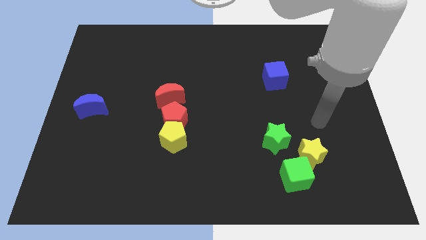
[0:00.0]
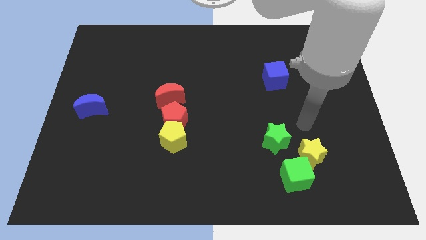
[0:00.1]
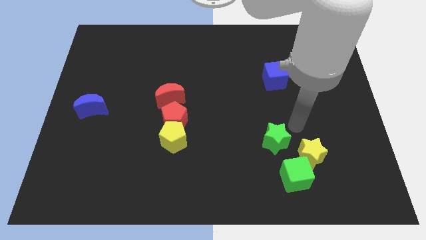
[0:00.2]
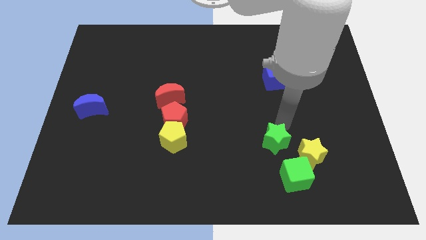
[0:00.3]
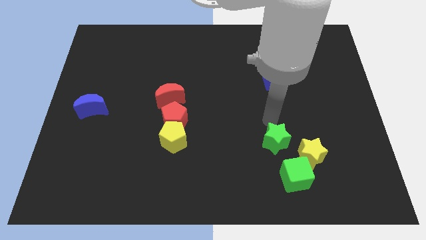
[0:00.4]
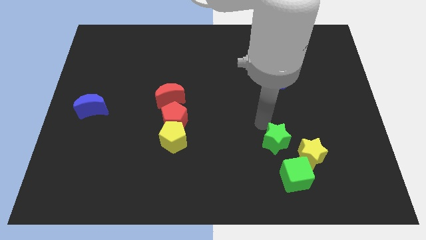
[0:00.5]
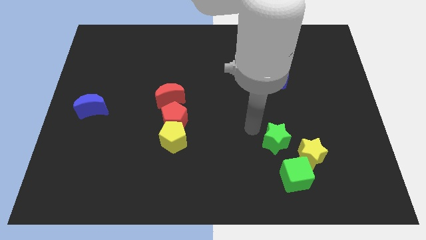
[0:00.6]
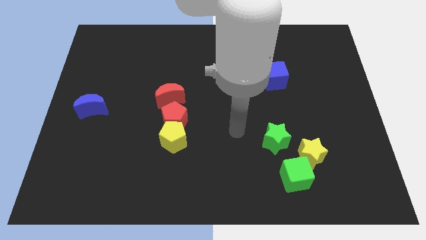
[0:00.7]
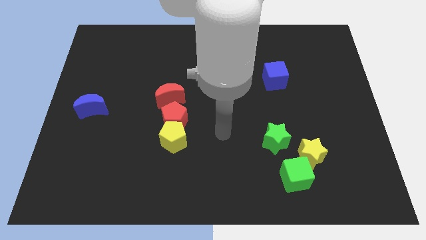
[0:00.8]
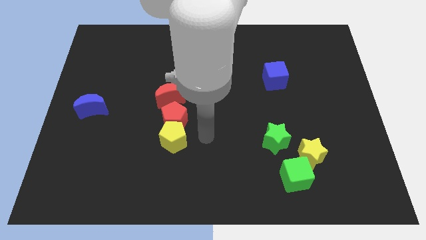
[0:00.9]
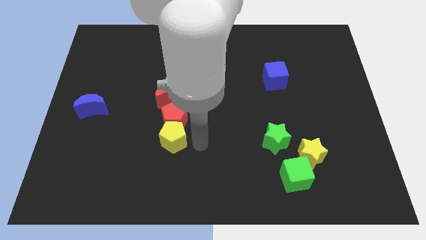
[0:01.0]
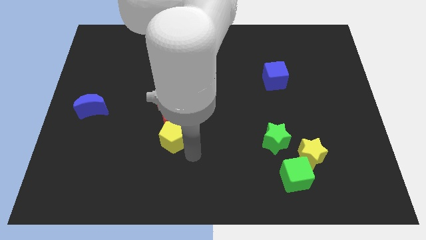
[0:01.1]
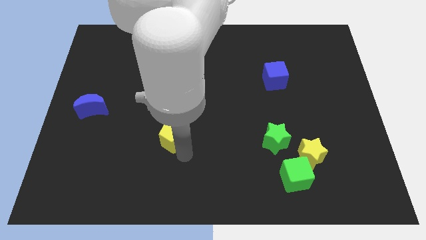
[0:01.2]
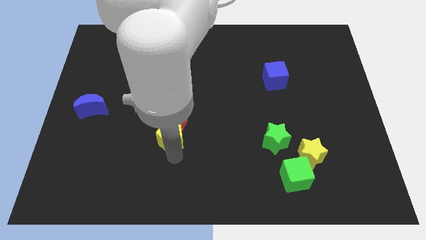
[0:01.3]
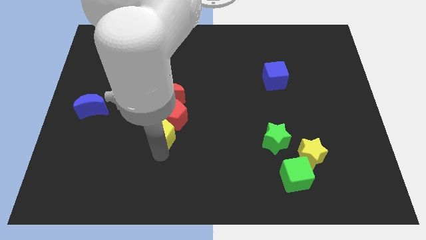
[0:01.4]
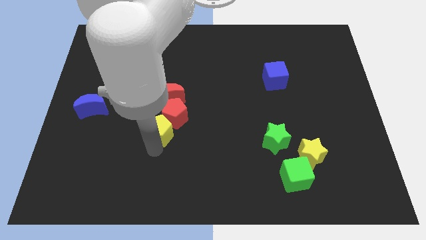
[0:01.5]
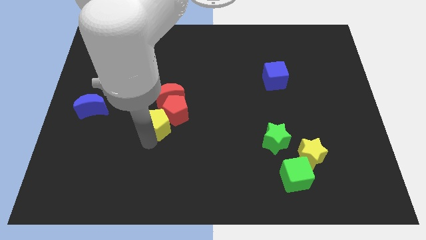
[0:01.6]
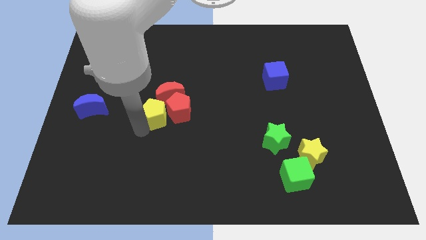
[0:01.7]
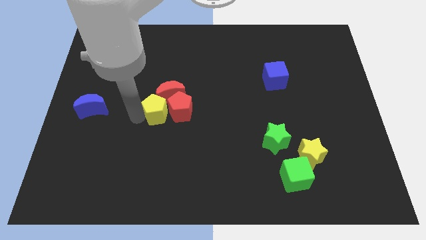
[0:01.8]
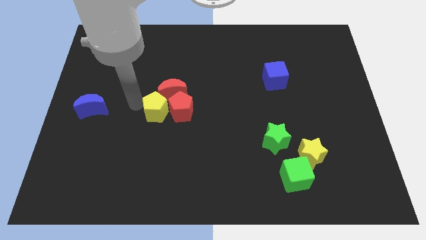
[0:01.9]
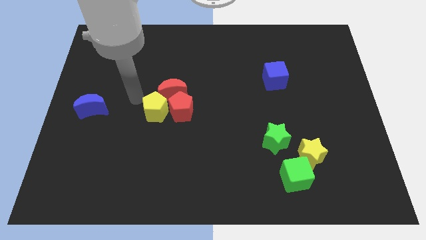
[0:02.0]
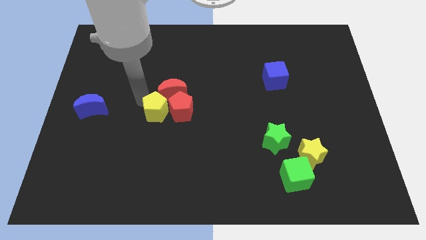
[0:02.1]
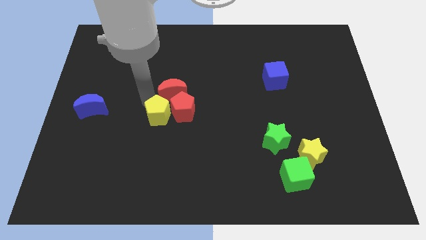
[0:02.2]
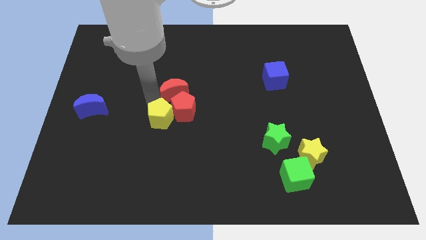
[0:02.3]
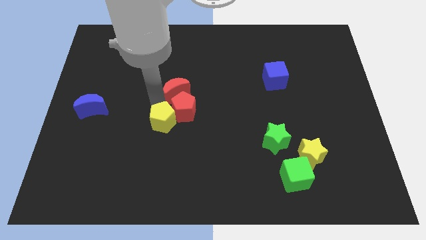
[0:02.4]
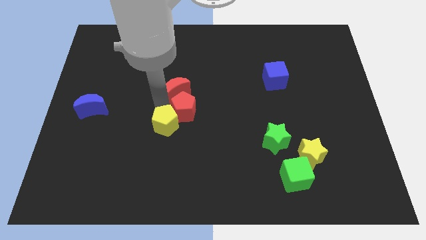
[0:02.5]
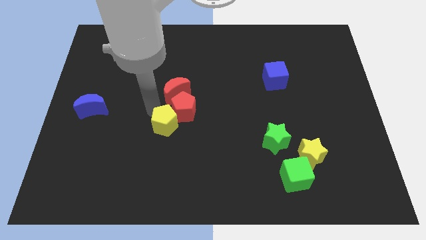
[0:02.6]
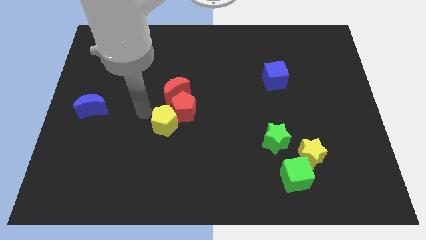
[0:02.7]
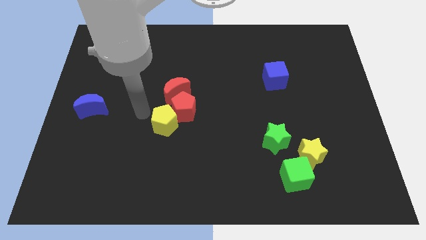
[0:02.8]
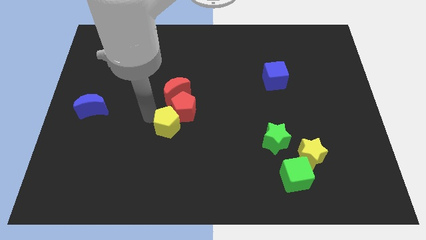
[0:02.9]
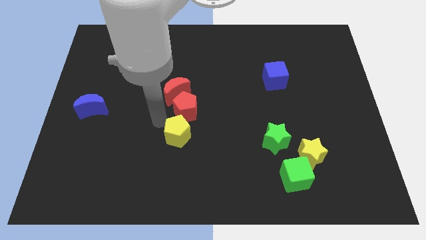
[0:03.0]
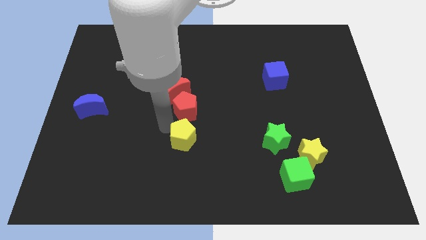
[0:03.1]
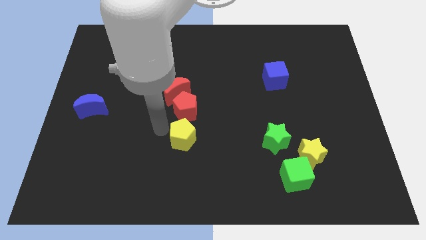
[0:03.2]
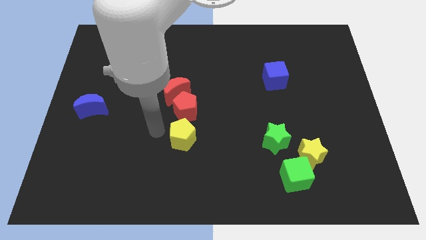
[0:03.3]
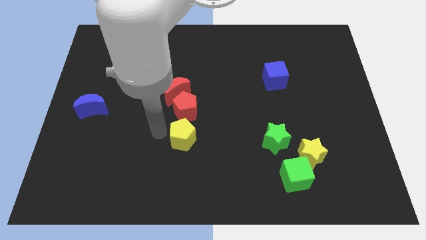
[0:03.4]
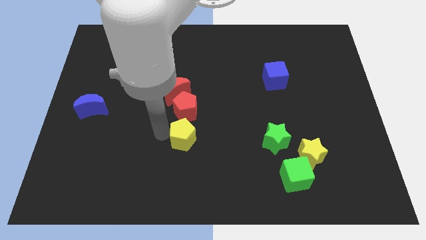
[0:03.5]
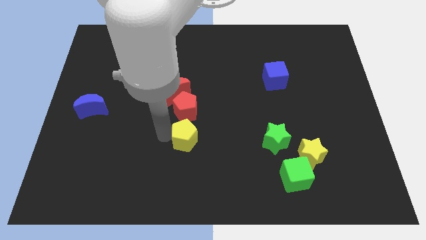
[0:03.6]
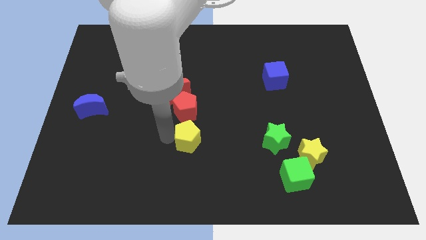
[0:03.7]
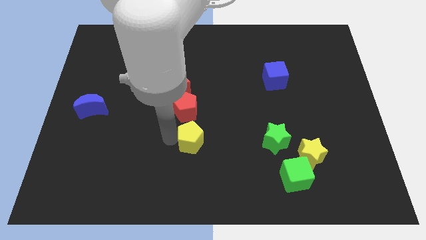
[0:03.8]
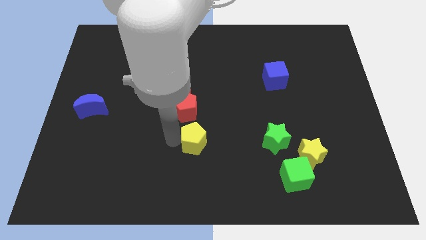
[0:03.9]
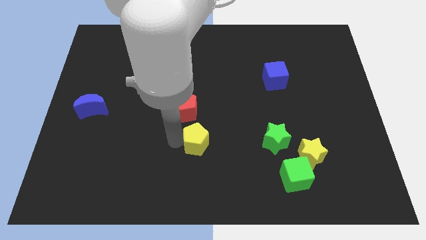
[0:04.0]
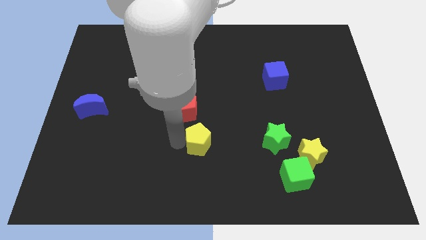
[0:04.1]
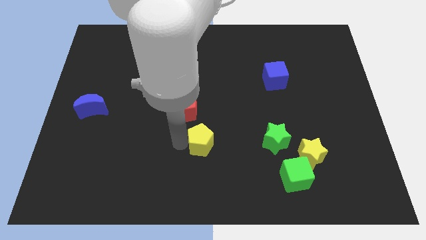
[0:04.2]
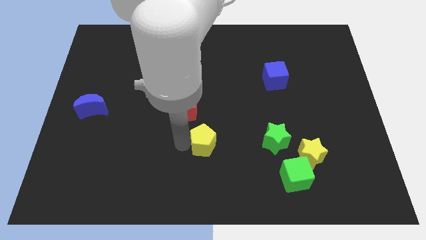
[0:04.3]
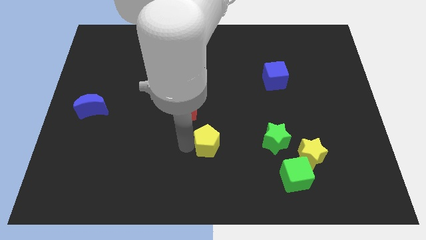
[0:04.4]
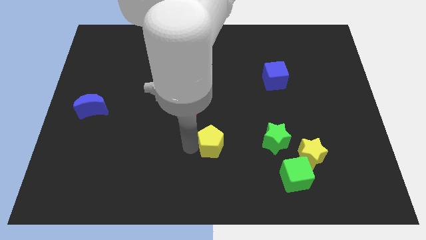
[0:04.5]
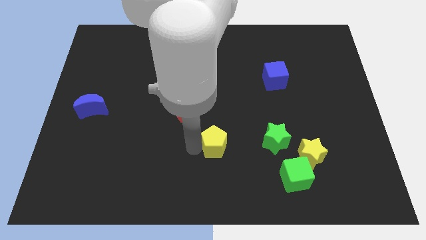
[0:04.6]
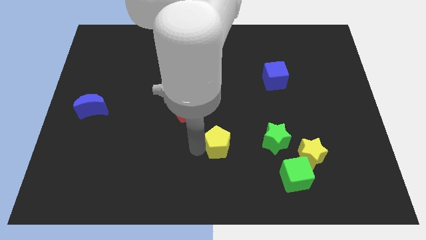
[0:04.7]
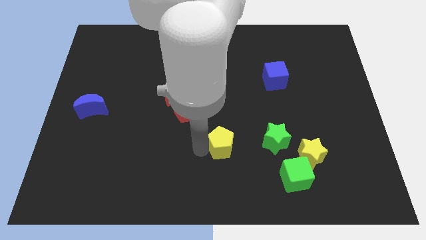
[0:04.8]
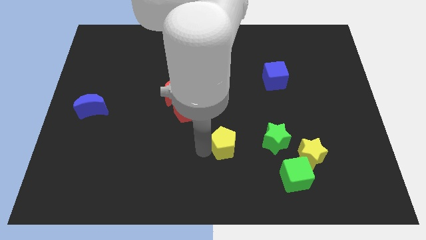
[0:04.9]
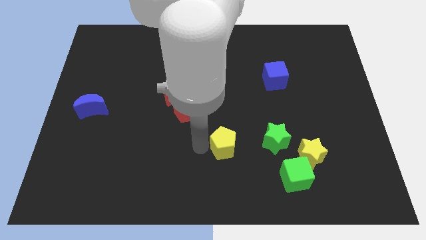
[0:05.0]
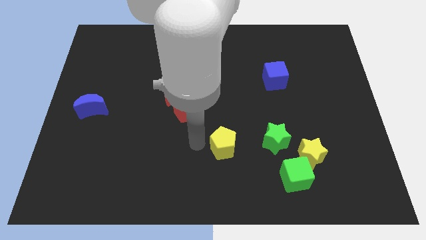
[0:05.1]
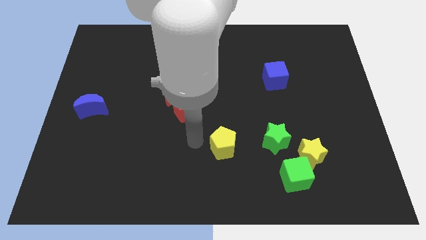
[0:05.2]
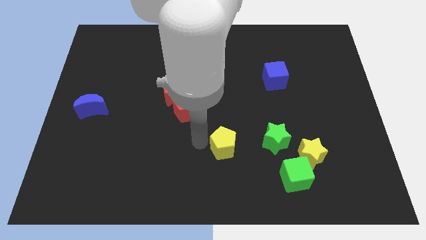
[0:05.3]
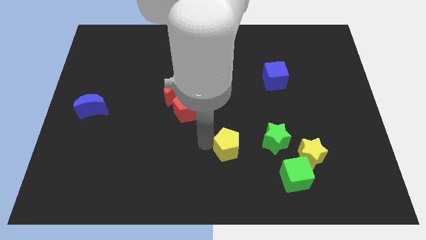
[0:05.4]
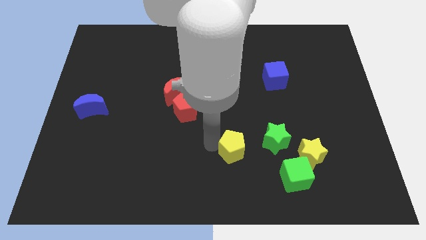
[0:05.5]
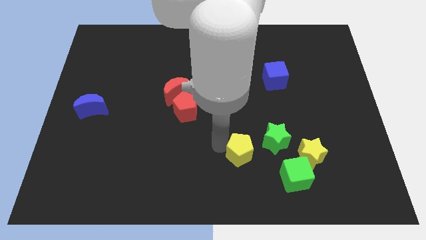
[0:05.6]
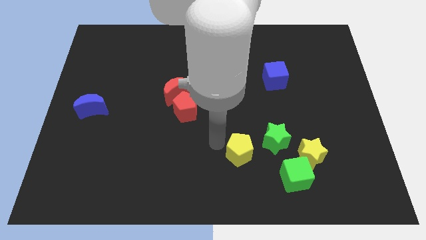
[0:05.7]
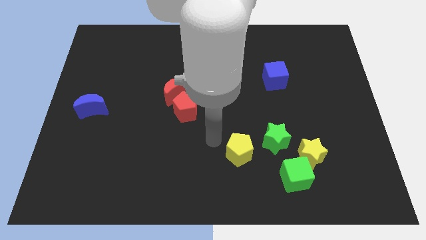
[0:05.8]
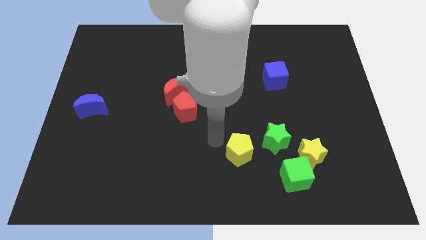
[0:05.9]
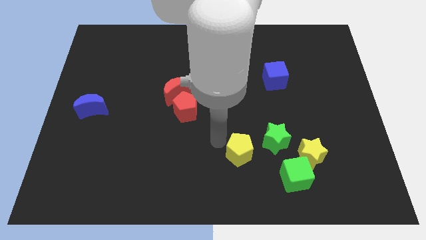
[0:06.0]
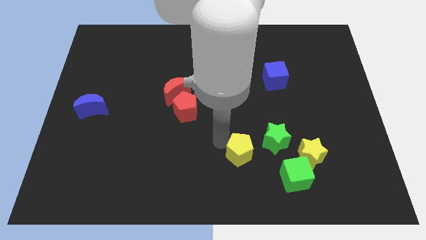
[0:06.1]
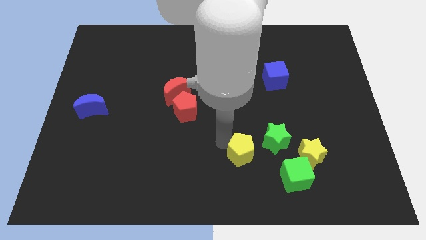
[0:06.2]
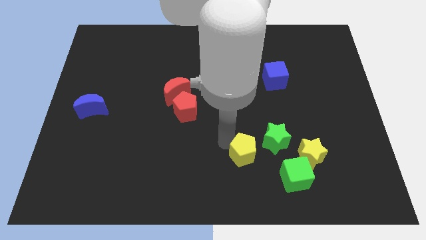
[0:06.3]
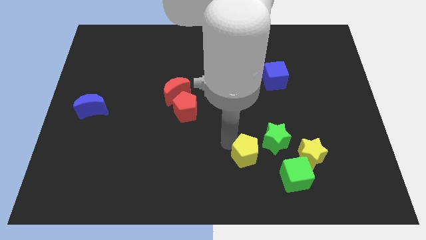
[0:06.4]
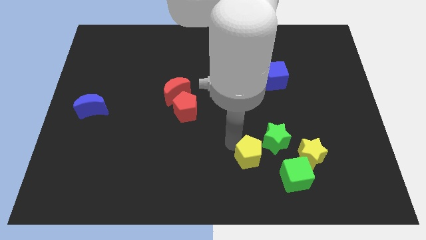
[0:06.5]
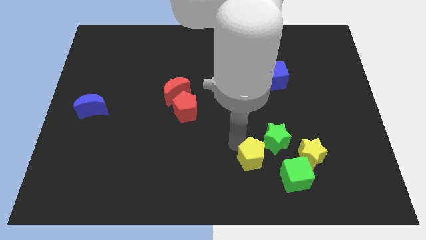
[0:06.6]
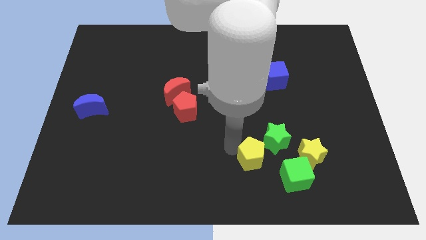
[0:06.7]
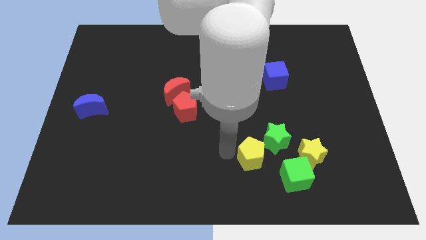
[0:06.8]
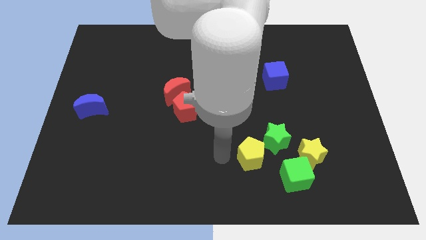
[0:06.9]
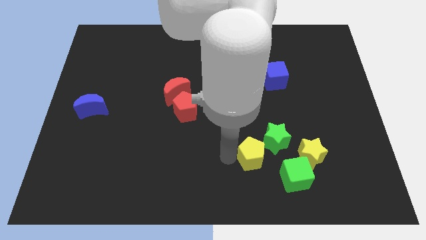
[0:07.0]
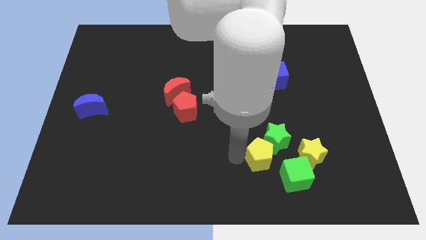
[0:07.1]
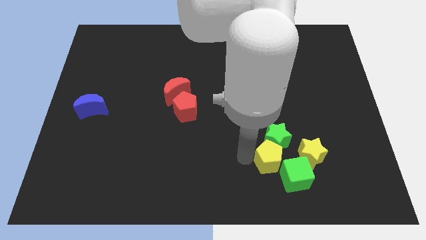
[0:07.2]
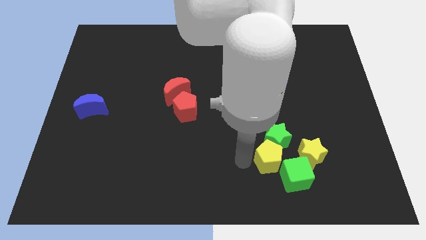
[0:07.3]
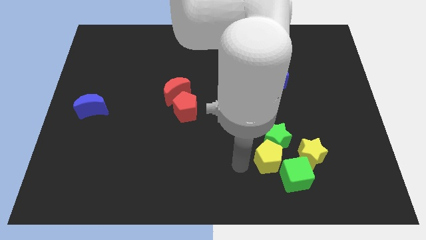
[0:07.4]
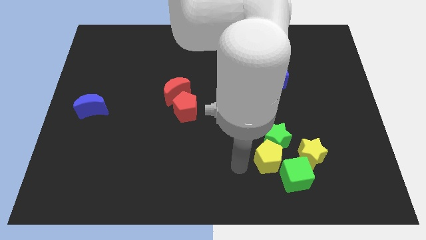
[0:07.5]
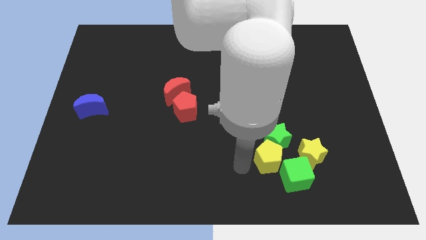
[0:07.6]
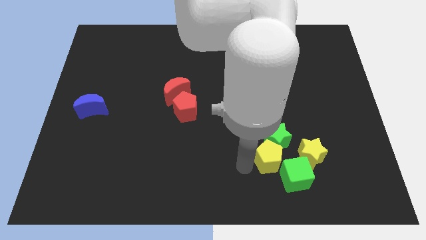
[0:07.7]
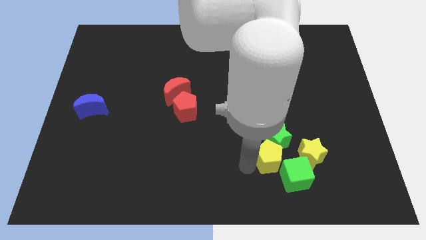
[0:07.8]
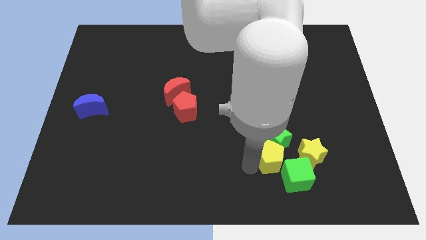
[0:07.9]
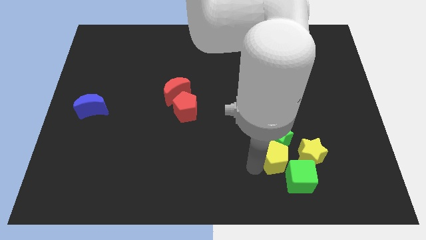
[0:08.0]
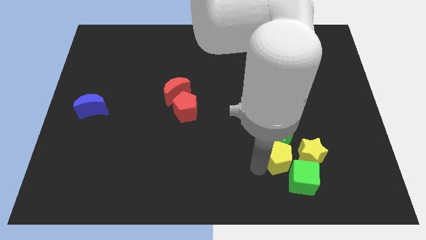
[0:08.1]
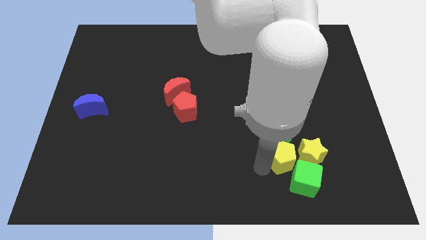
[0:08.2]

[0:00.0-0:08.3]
put the yellow pentagon to the yellow star
